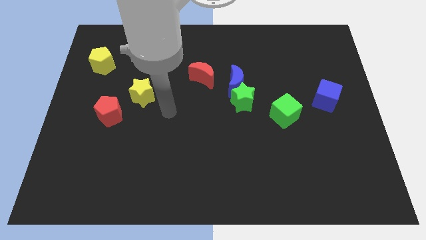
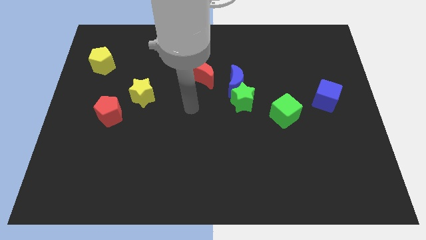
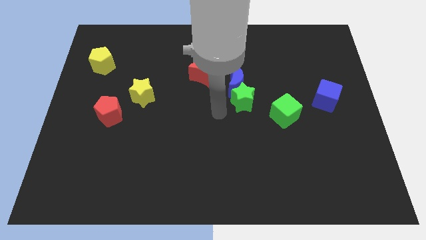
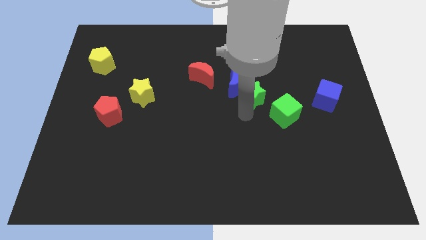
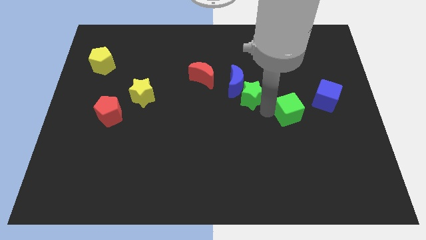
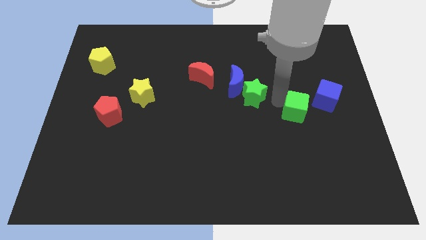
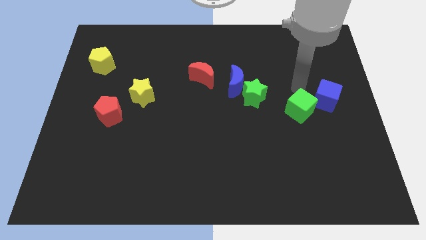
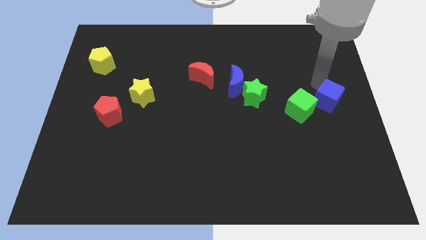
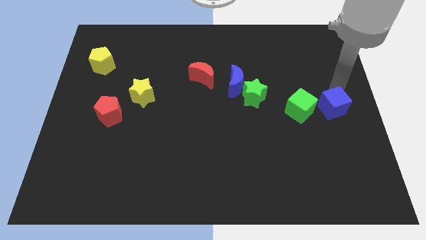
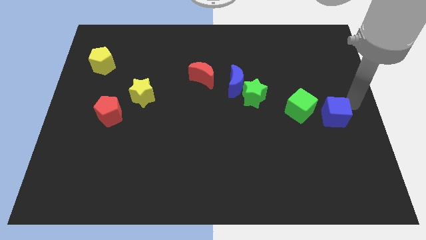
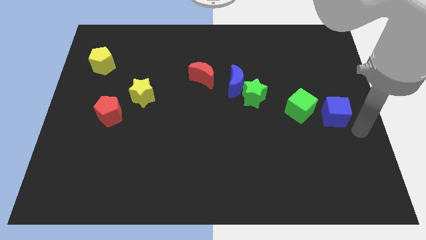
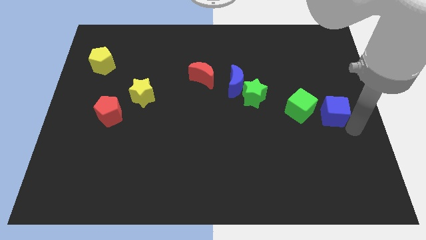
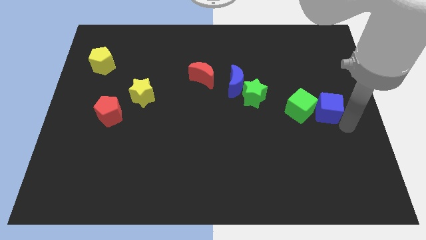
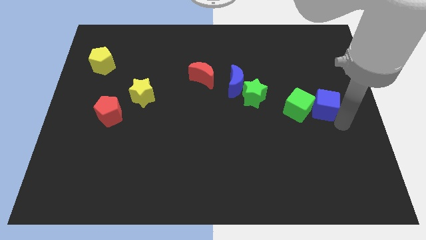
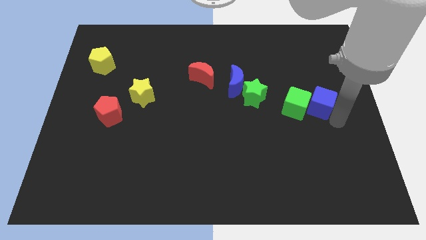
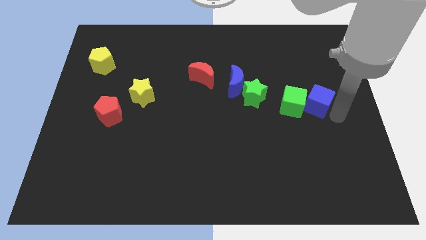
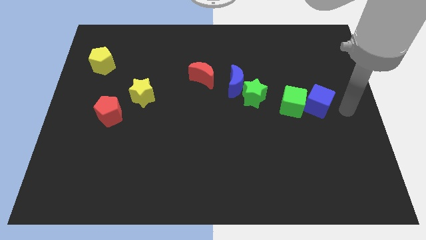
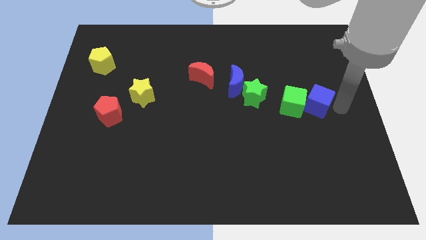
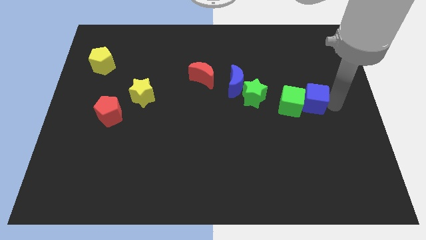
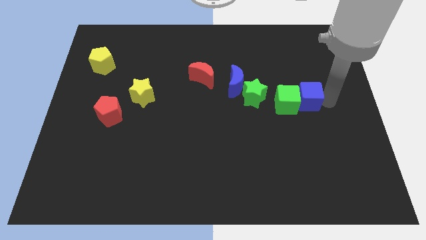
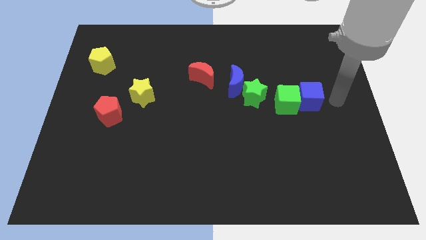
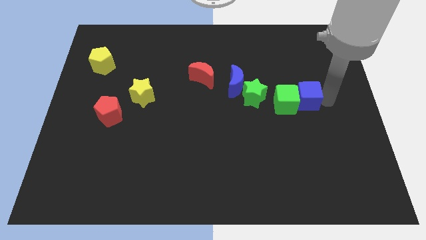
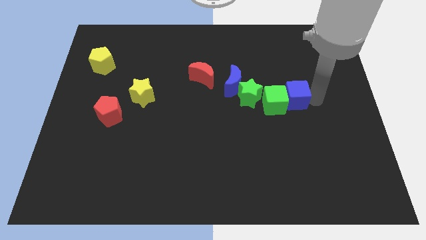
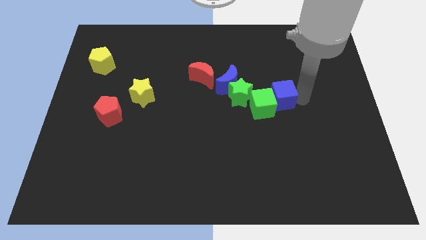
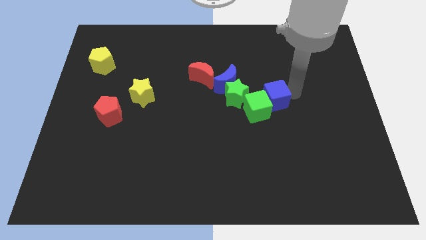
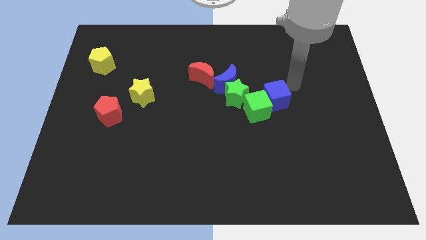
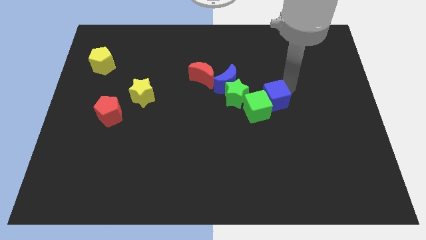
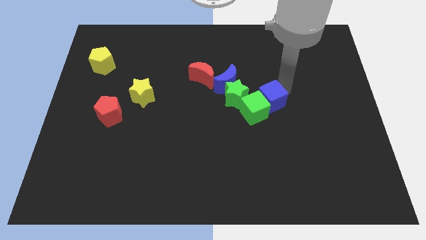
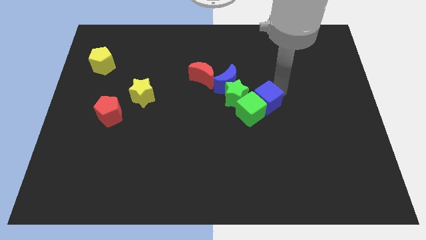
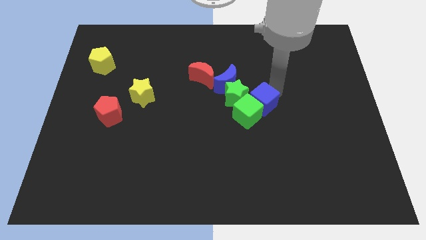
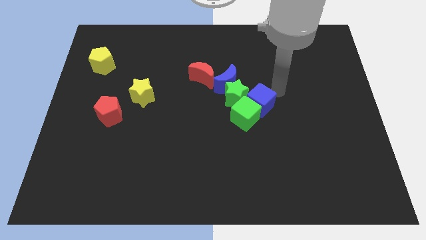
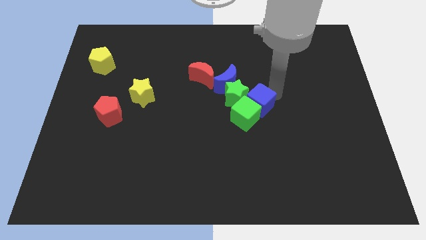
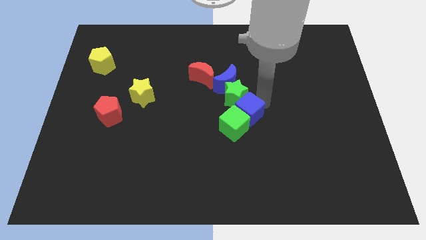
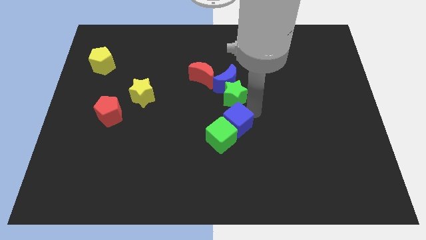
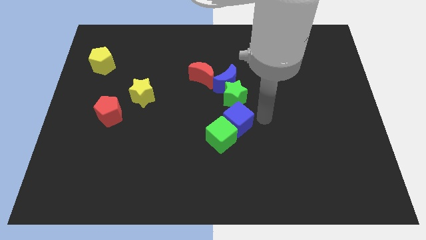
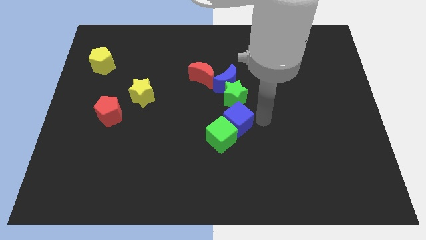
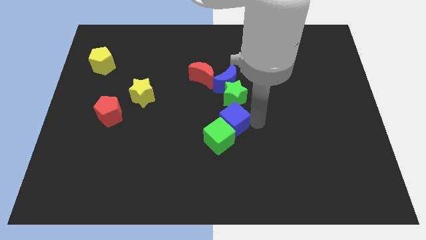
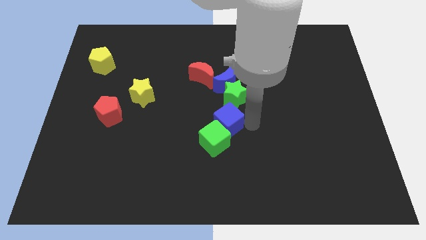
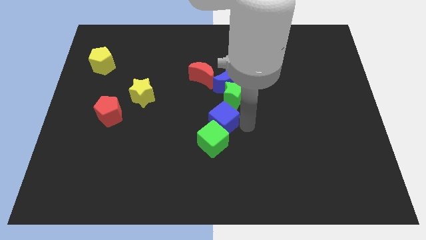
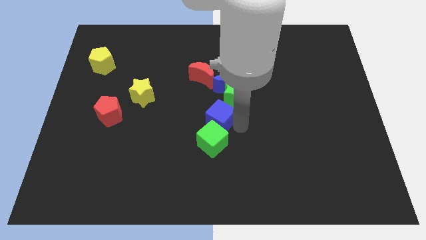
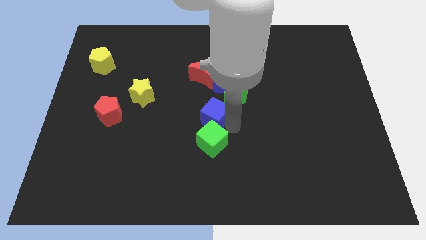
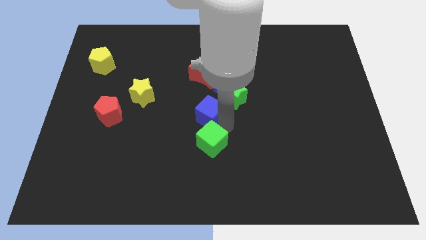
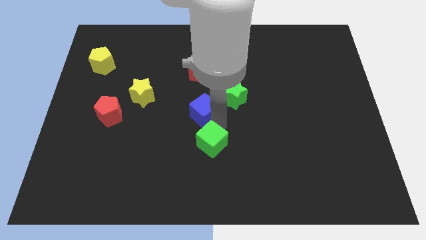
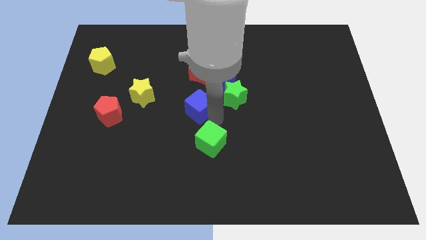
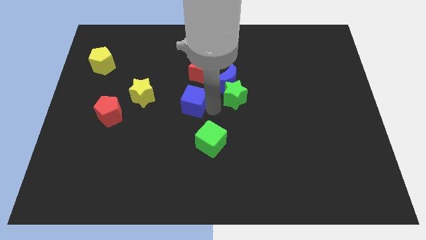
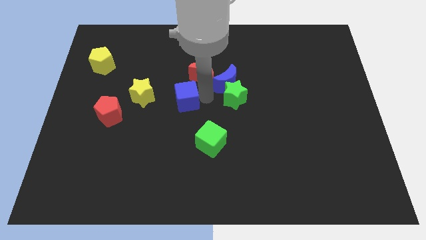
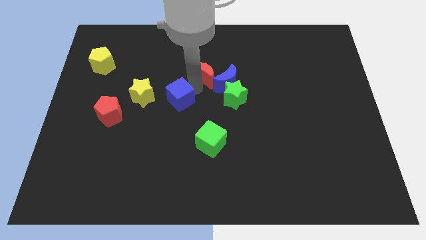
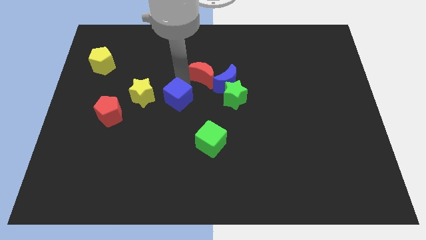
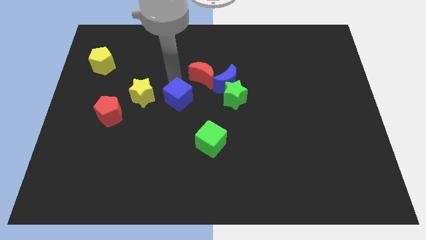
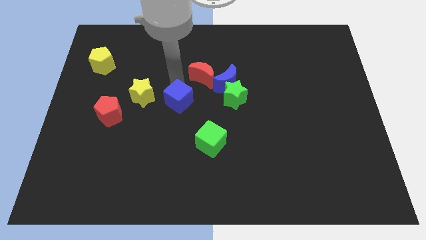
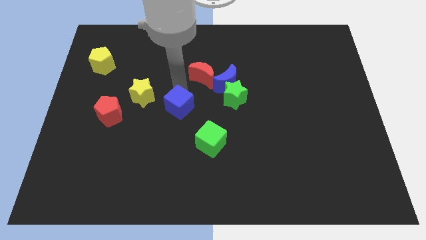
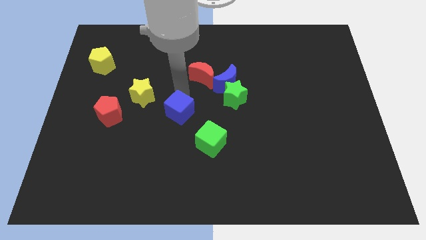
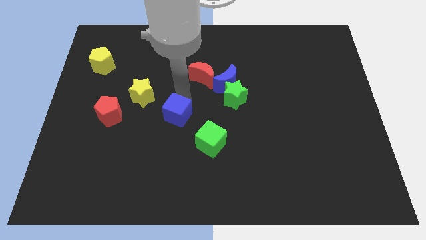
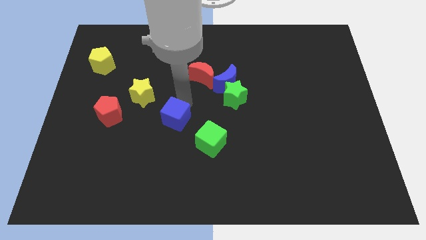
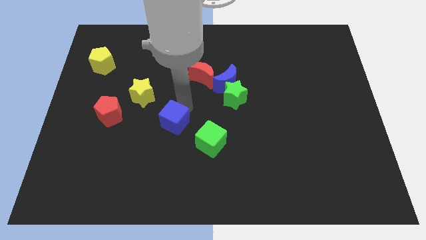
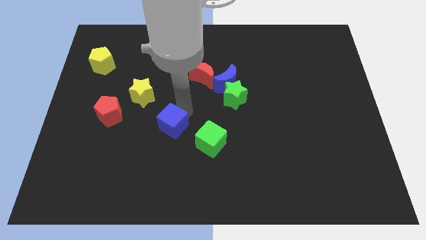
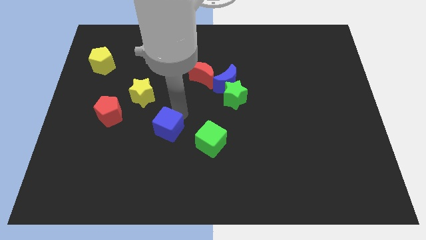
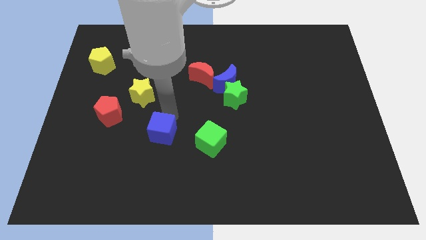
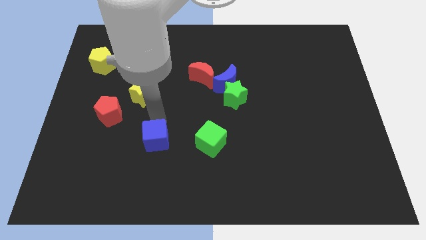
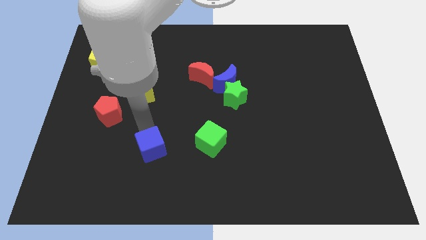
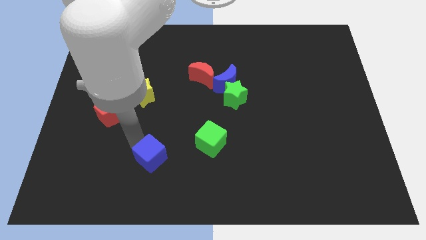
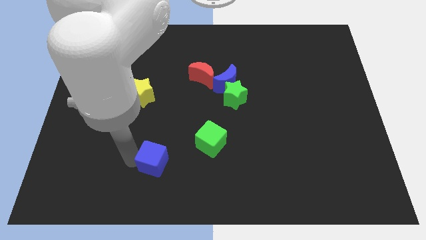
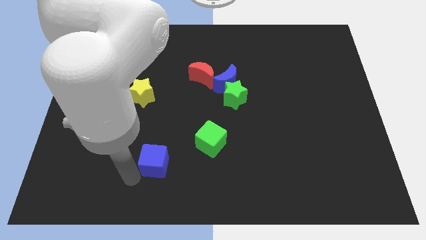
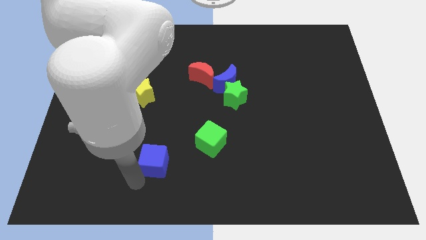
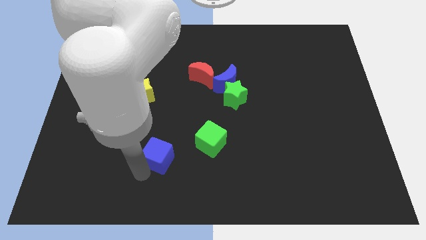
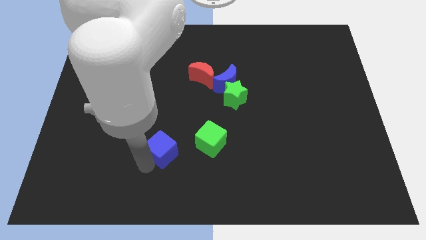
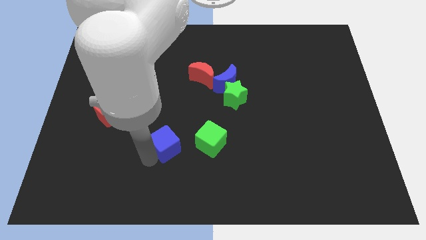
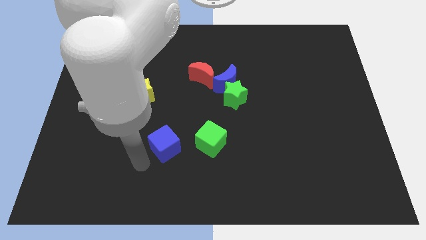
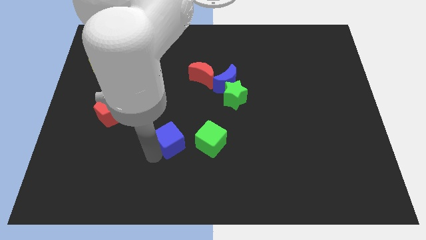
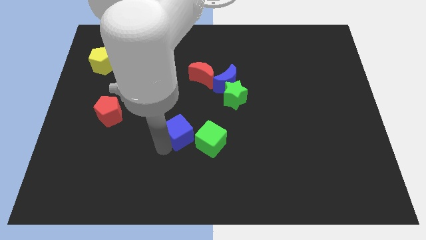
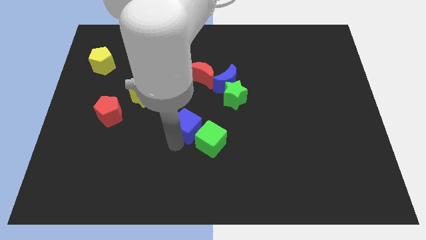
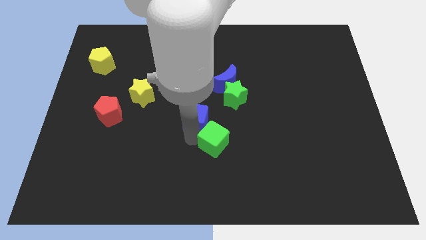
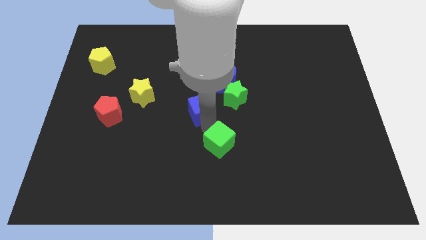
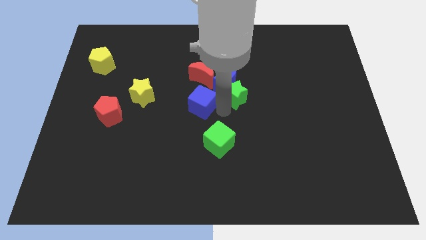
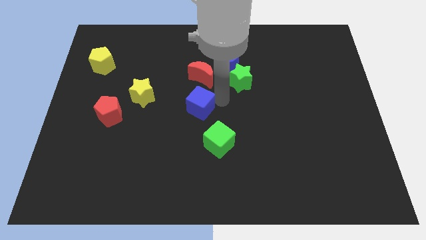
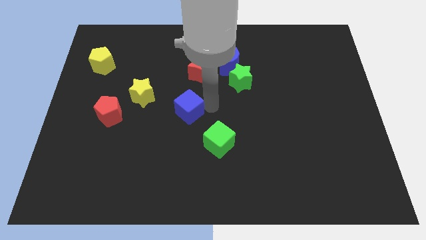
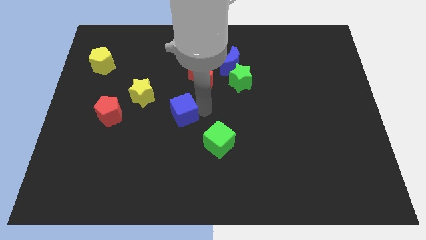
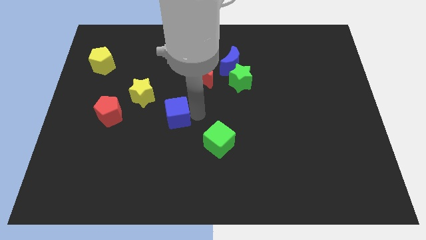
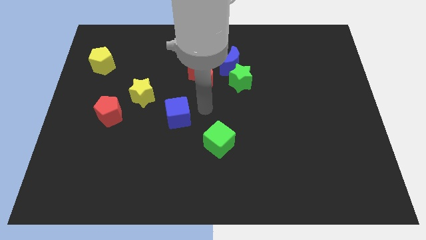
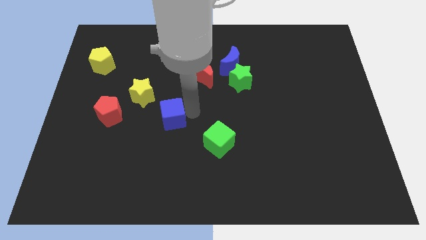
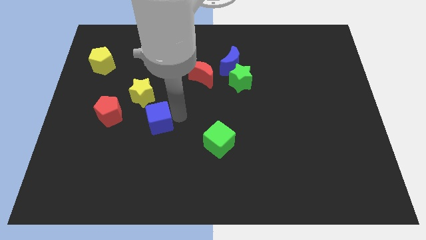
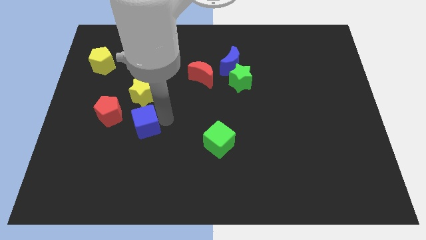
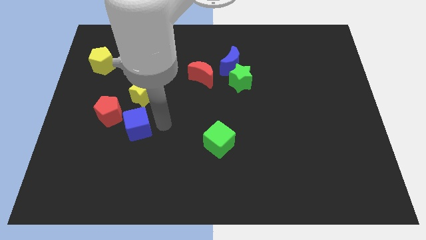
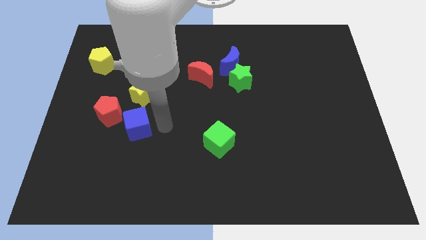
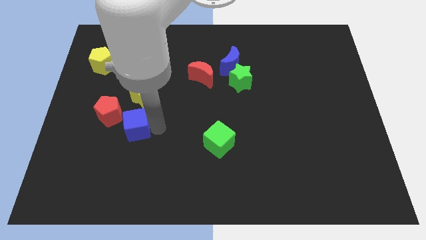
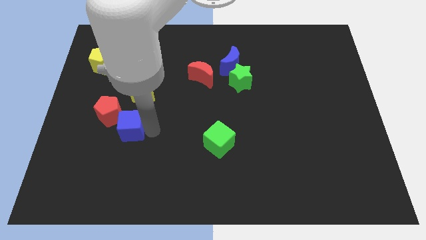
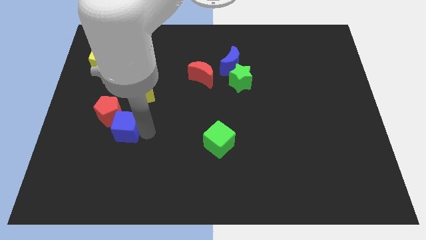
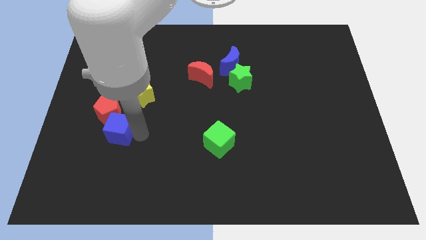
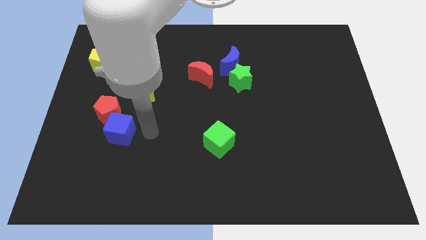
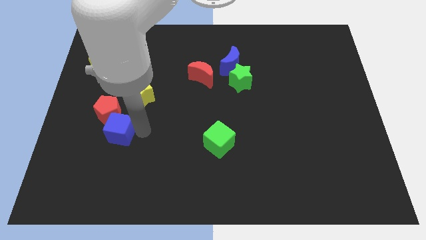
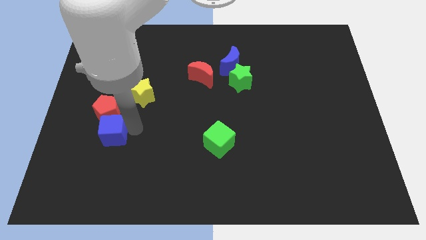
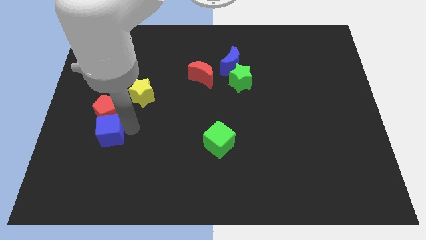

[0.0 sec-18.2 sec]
push the blue cube diagonally down and to the left of the red pentagon
